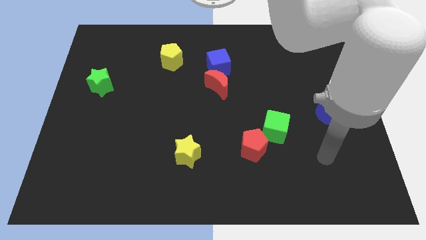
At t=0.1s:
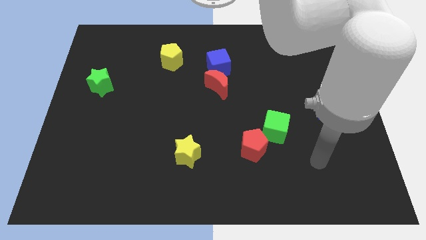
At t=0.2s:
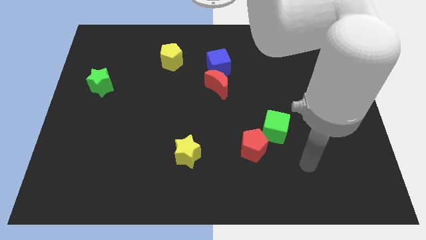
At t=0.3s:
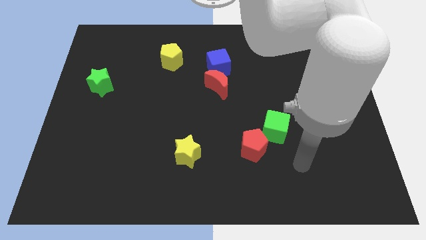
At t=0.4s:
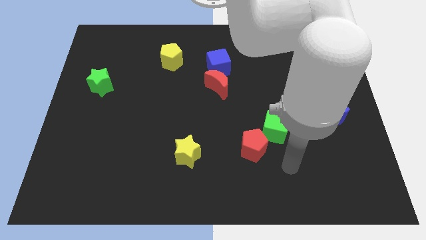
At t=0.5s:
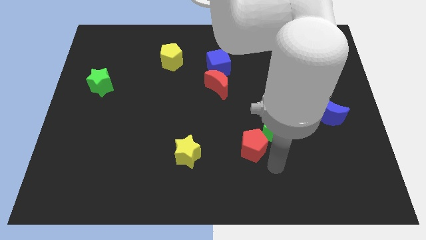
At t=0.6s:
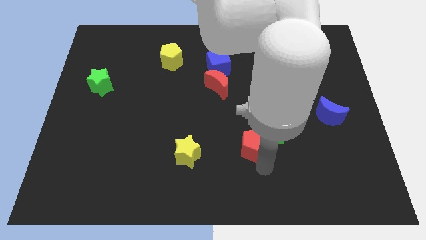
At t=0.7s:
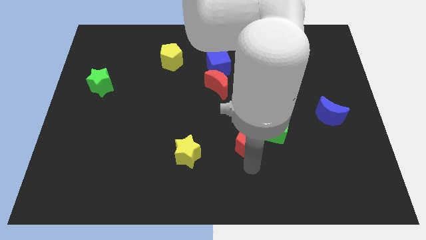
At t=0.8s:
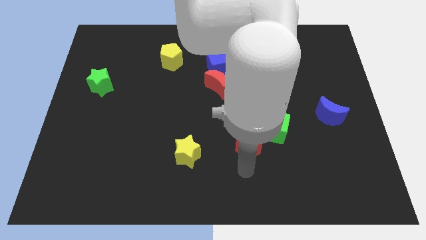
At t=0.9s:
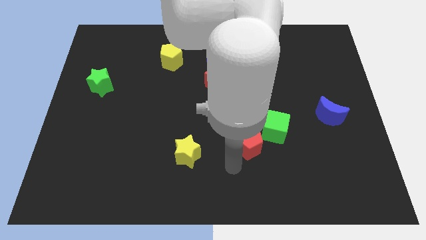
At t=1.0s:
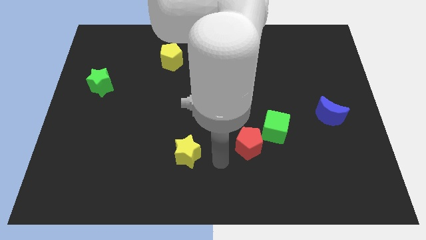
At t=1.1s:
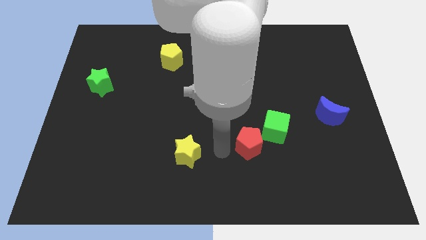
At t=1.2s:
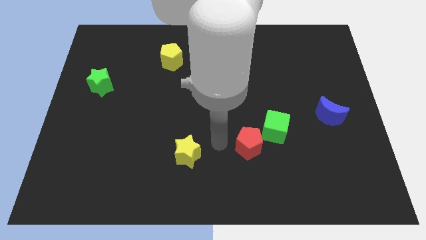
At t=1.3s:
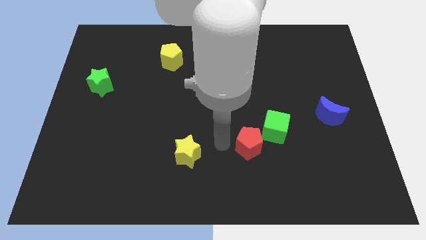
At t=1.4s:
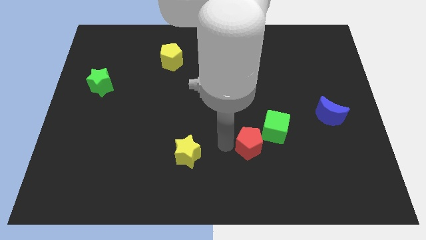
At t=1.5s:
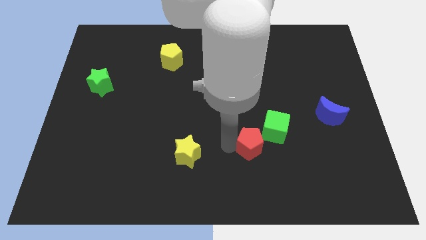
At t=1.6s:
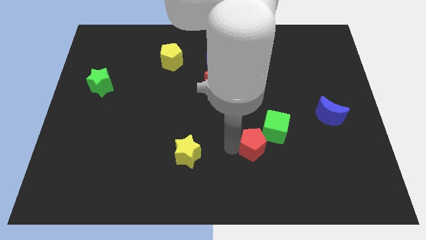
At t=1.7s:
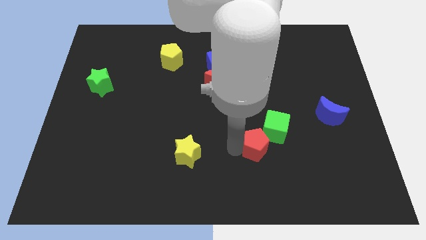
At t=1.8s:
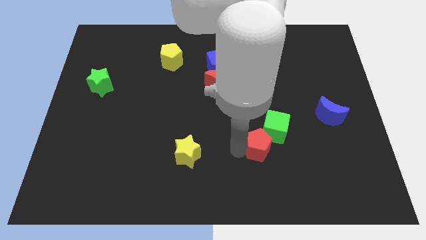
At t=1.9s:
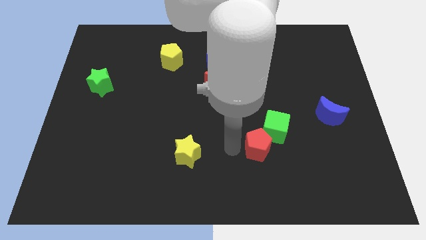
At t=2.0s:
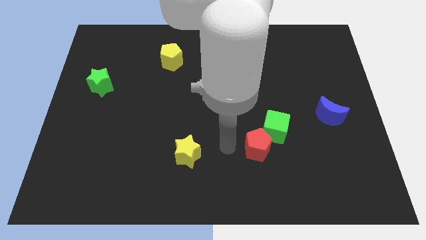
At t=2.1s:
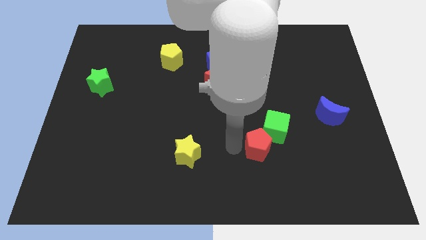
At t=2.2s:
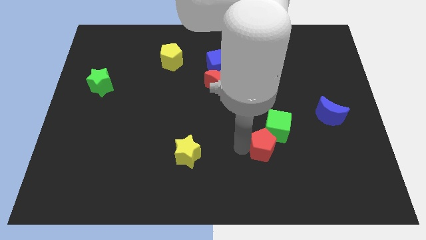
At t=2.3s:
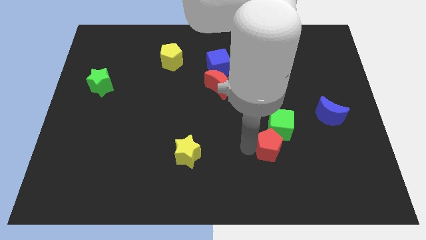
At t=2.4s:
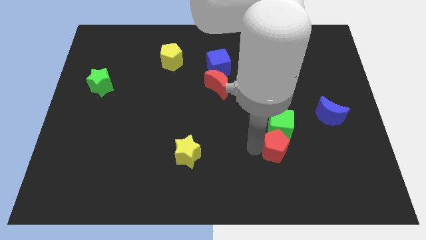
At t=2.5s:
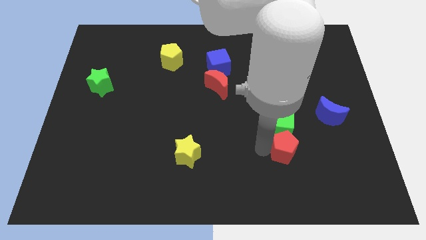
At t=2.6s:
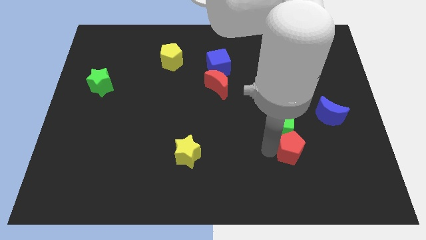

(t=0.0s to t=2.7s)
slide the red pentagon a bit right

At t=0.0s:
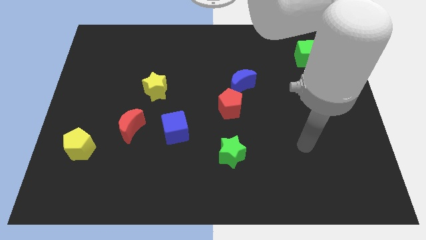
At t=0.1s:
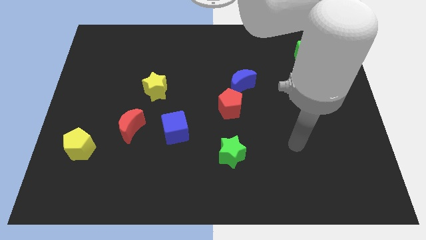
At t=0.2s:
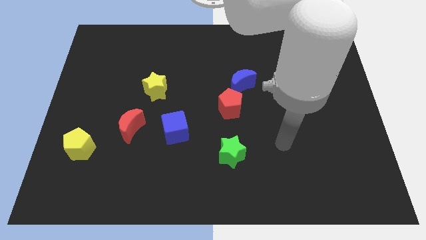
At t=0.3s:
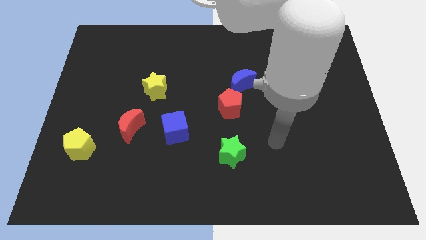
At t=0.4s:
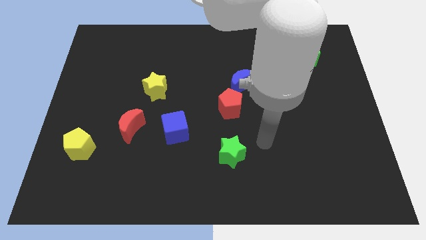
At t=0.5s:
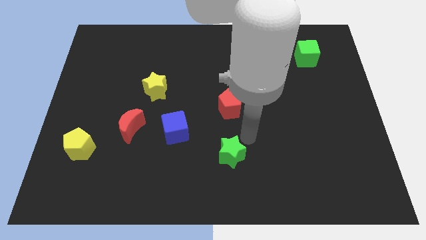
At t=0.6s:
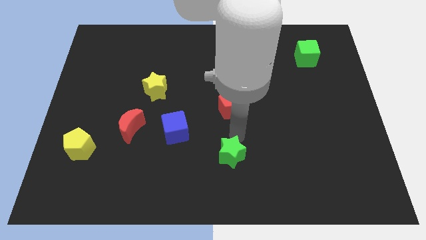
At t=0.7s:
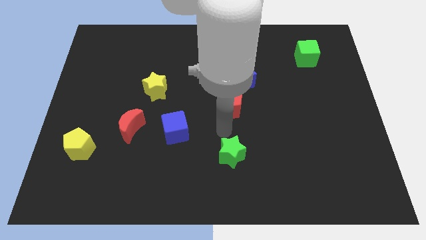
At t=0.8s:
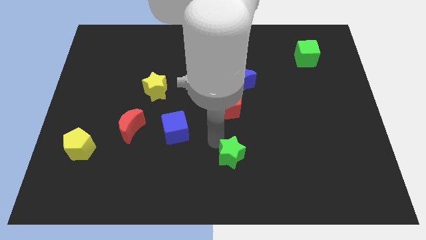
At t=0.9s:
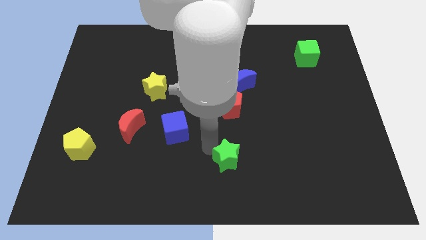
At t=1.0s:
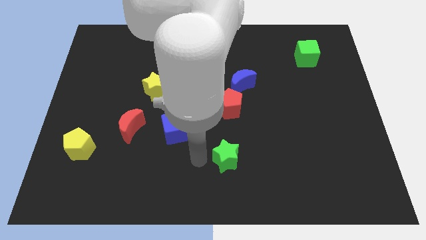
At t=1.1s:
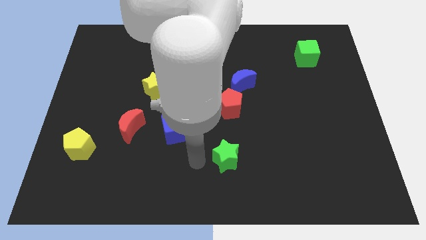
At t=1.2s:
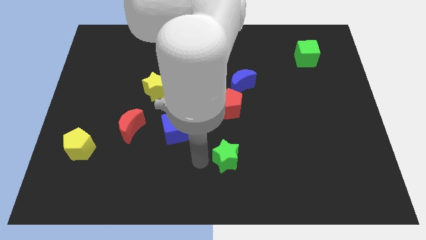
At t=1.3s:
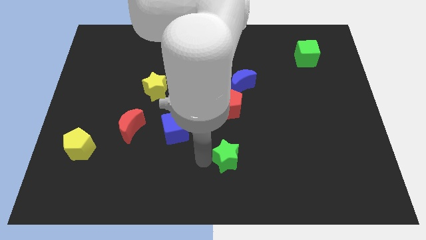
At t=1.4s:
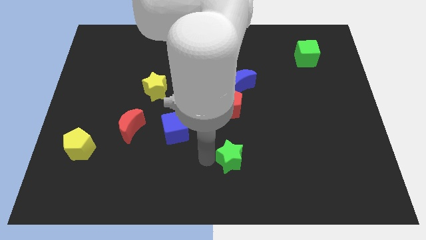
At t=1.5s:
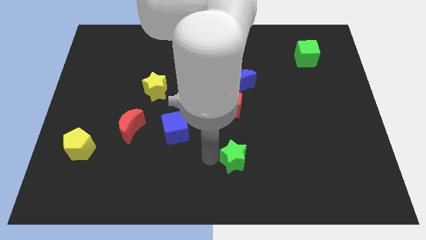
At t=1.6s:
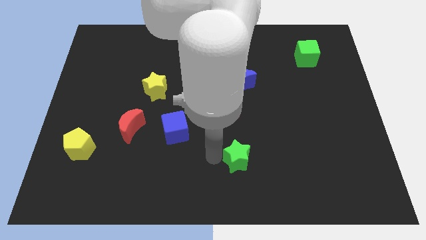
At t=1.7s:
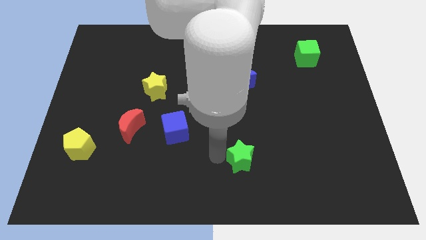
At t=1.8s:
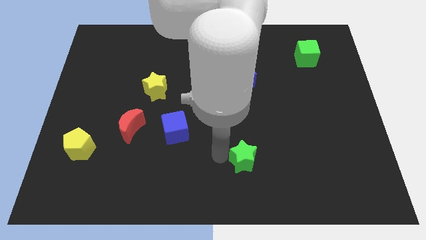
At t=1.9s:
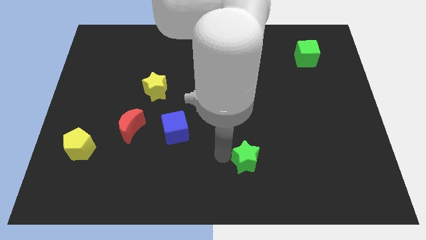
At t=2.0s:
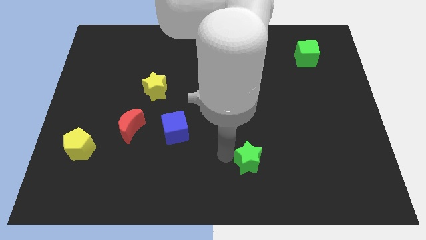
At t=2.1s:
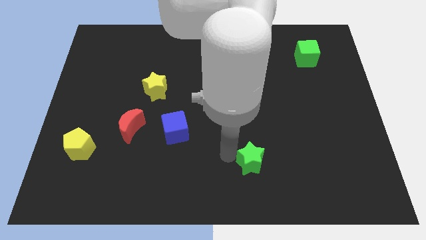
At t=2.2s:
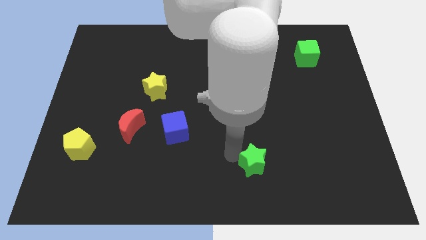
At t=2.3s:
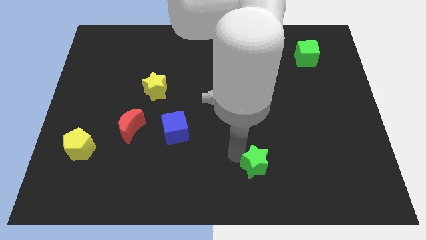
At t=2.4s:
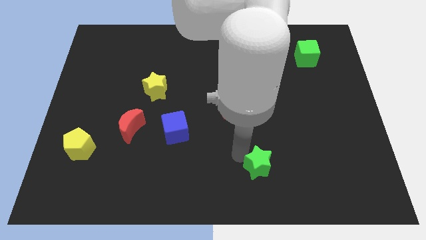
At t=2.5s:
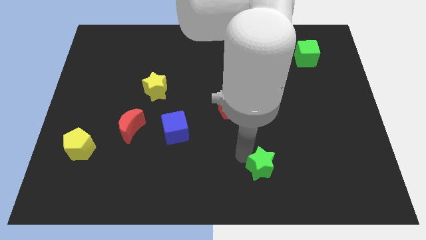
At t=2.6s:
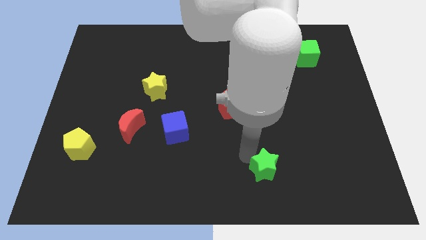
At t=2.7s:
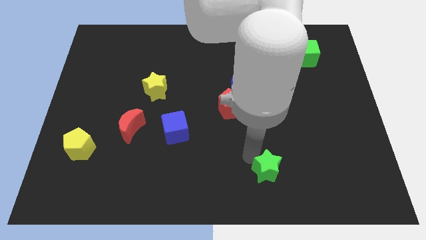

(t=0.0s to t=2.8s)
move the green star somewhat right

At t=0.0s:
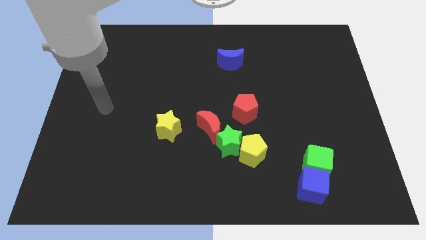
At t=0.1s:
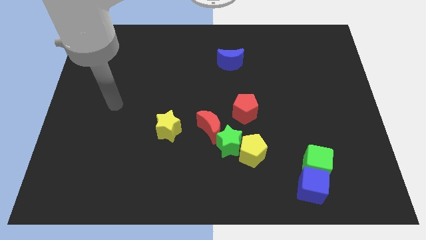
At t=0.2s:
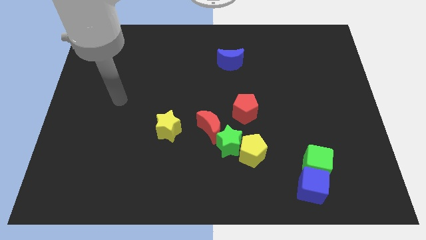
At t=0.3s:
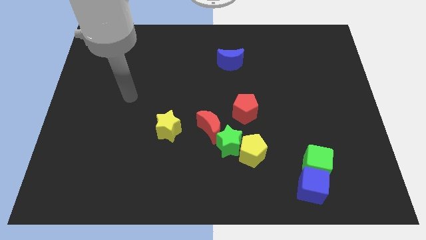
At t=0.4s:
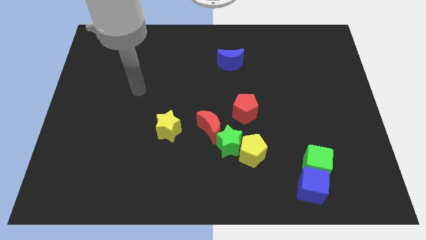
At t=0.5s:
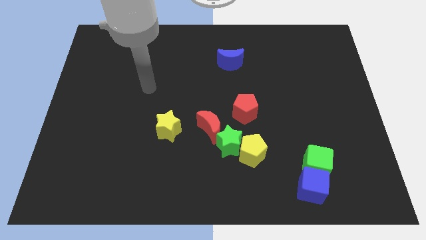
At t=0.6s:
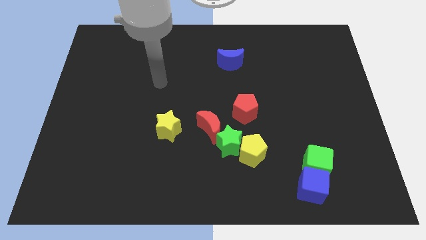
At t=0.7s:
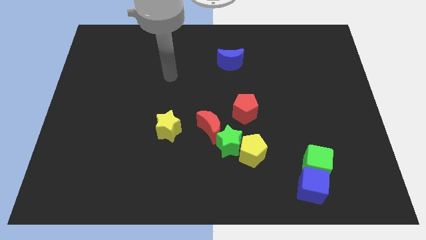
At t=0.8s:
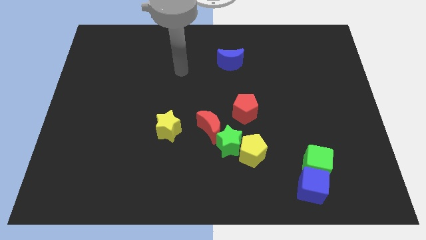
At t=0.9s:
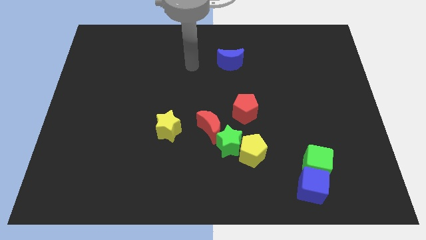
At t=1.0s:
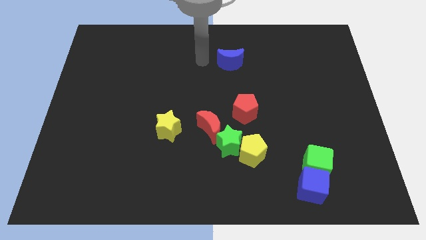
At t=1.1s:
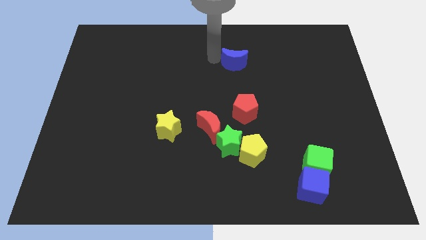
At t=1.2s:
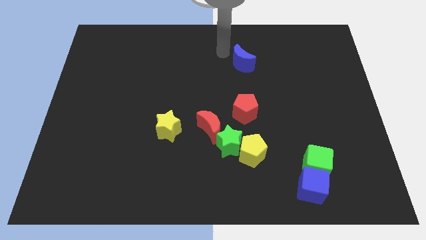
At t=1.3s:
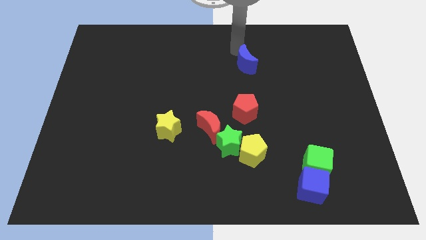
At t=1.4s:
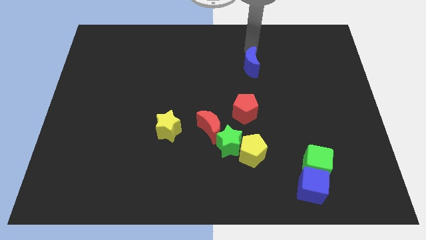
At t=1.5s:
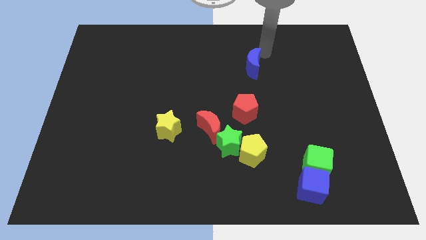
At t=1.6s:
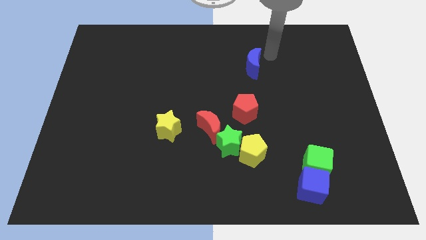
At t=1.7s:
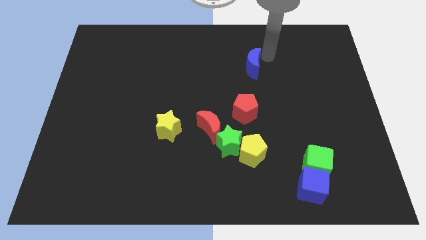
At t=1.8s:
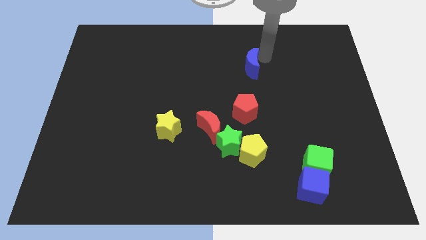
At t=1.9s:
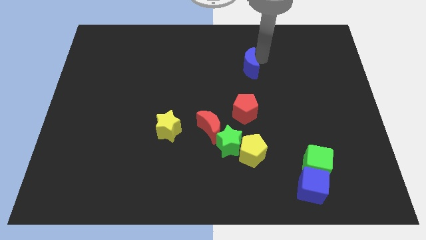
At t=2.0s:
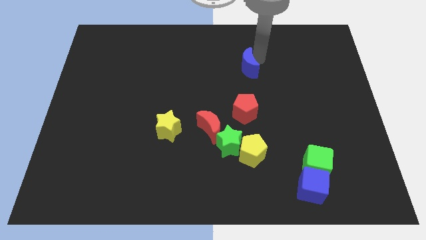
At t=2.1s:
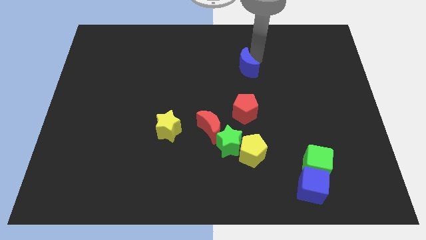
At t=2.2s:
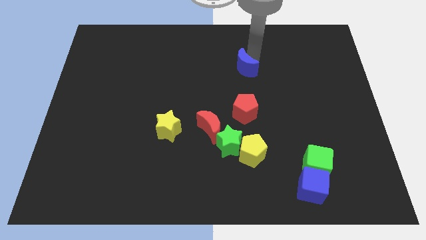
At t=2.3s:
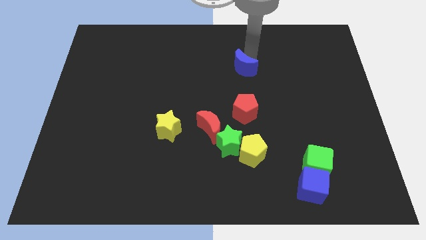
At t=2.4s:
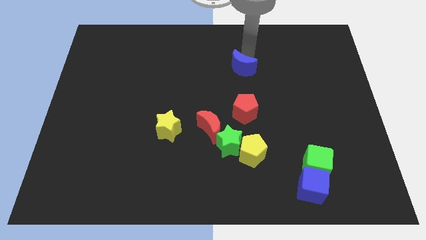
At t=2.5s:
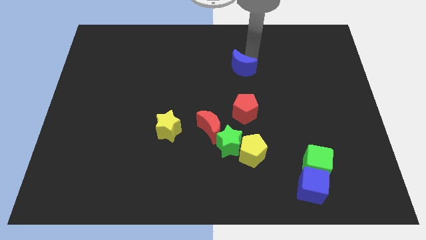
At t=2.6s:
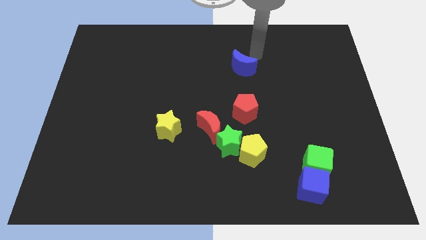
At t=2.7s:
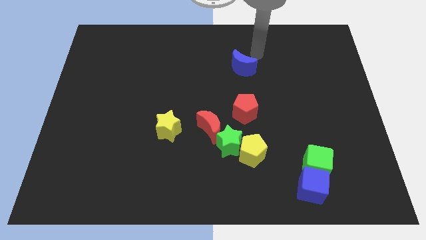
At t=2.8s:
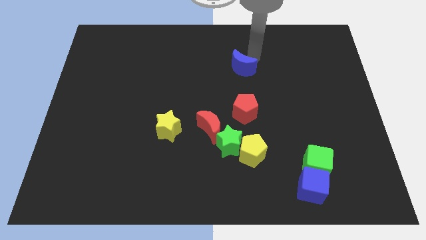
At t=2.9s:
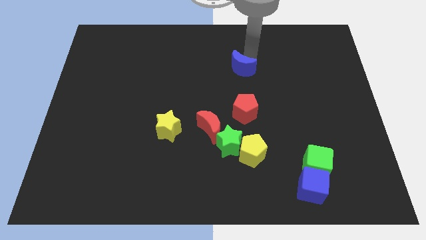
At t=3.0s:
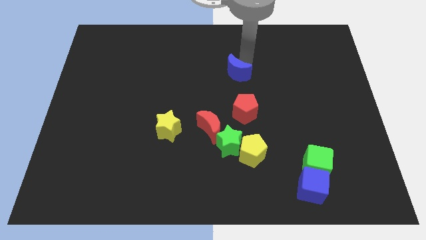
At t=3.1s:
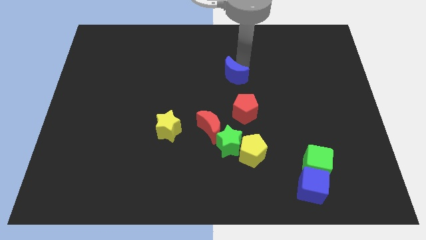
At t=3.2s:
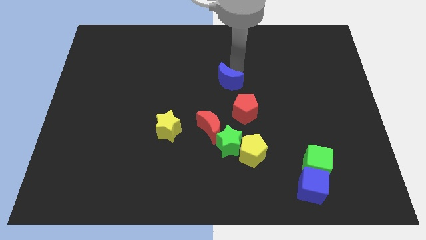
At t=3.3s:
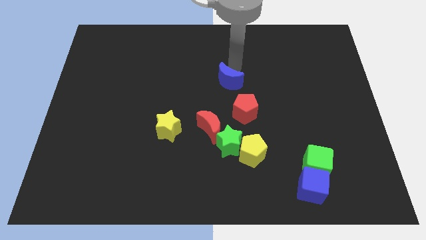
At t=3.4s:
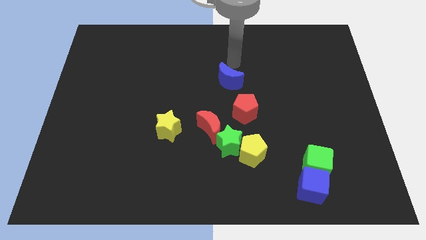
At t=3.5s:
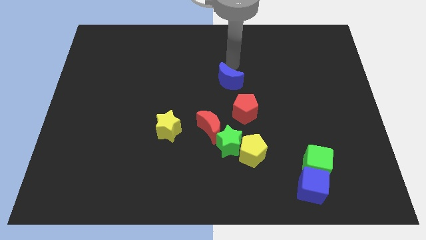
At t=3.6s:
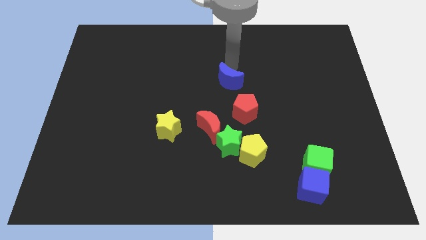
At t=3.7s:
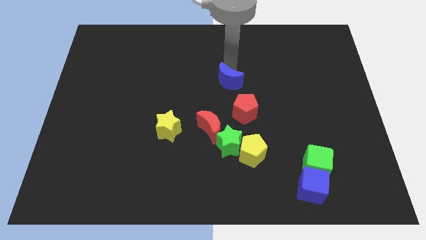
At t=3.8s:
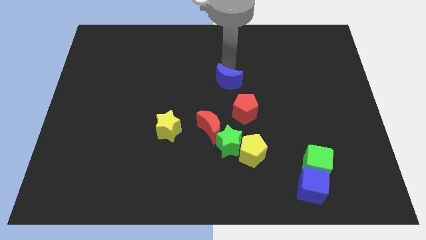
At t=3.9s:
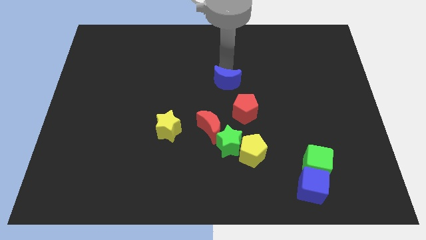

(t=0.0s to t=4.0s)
slide the blue moon downwards slightly
